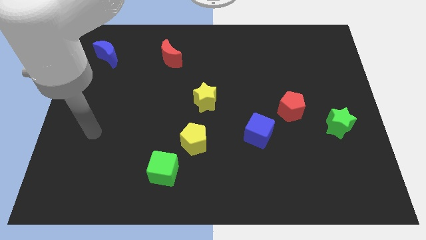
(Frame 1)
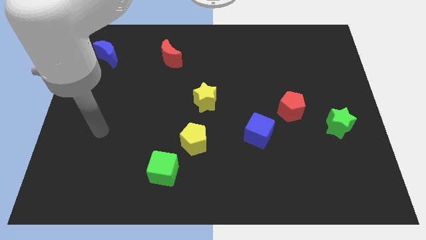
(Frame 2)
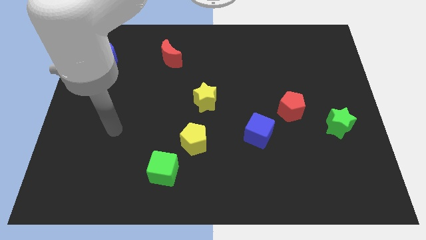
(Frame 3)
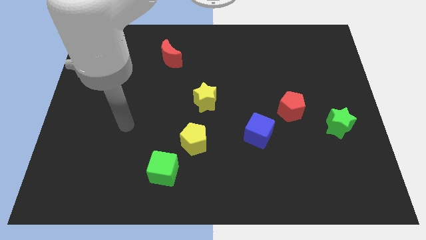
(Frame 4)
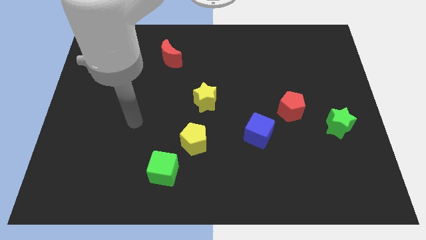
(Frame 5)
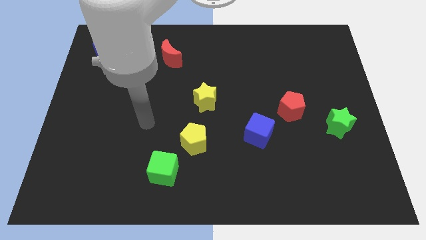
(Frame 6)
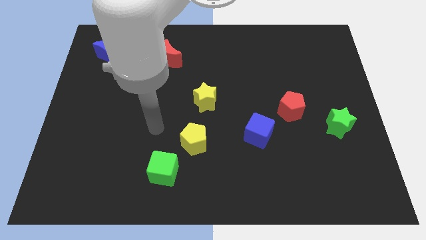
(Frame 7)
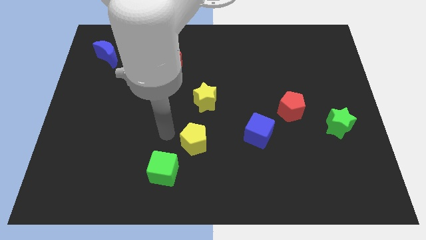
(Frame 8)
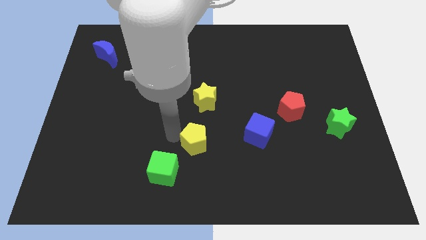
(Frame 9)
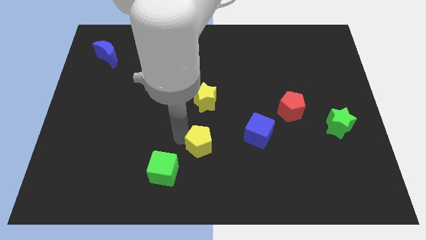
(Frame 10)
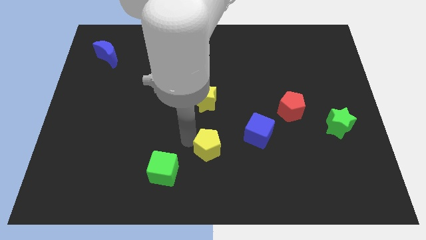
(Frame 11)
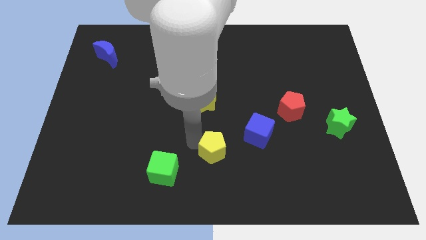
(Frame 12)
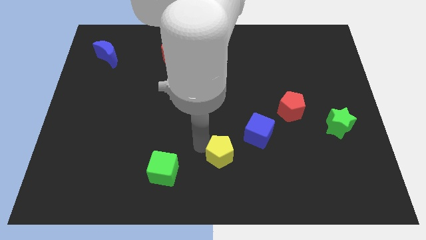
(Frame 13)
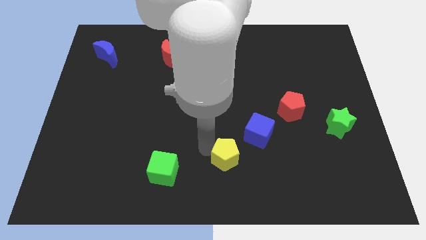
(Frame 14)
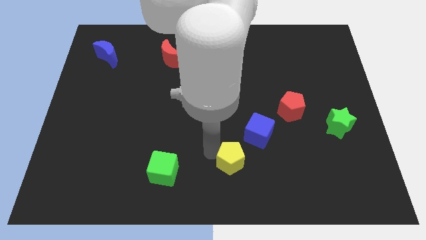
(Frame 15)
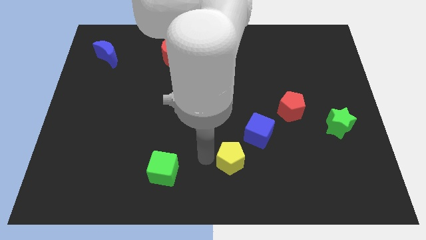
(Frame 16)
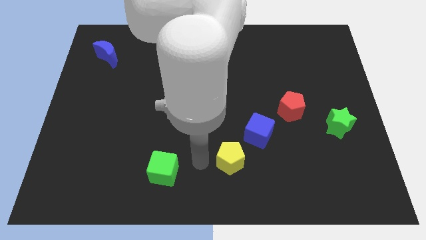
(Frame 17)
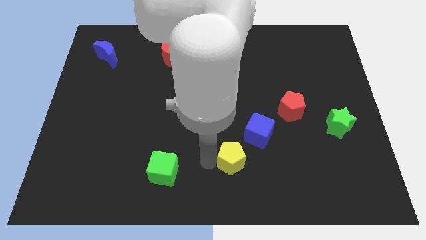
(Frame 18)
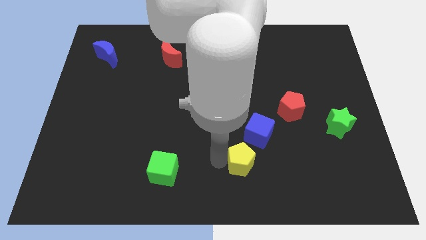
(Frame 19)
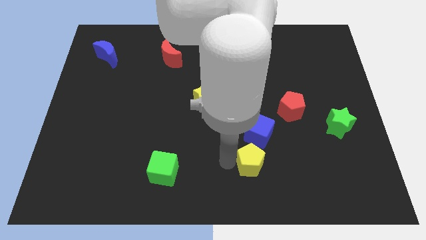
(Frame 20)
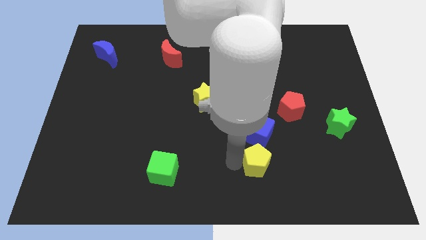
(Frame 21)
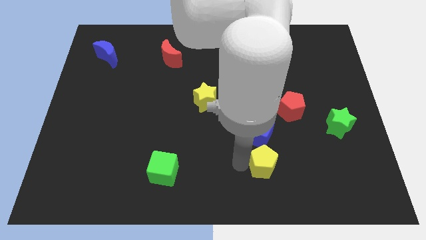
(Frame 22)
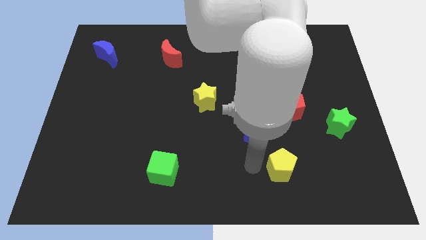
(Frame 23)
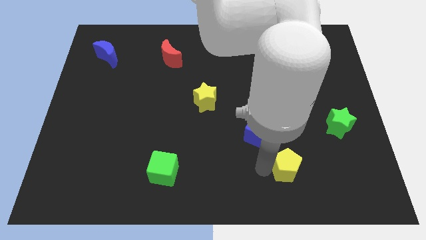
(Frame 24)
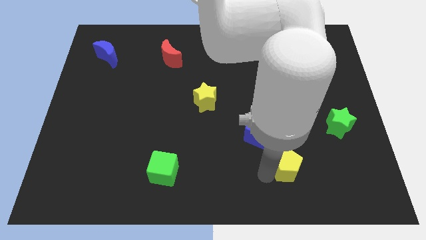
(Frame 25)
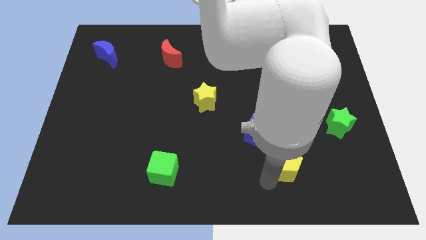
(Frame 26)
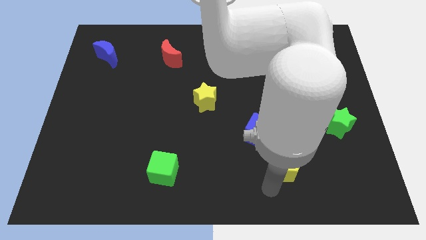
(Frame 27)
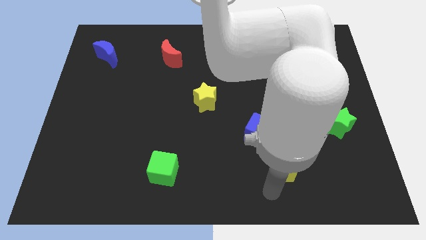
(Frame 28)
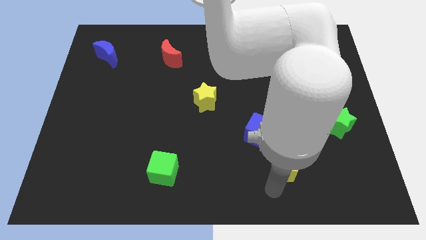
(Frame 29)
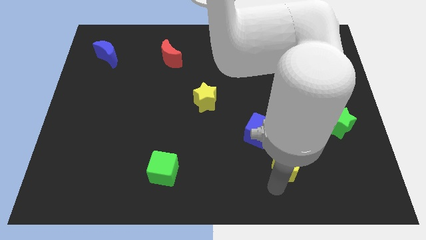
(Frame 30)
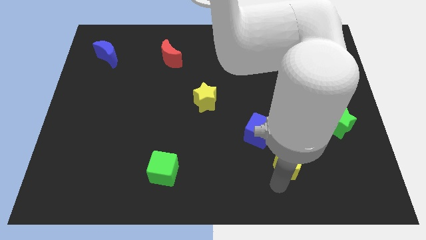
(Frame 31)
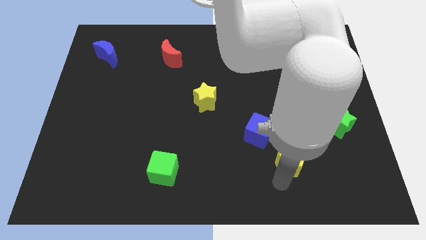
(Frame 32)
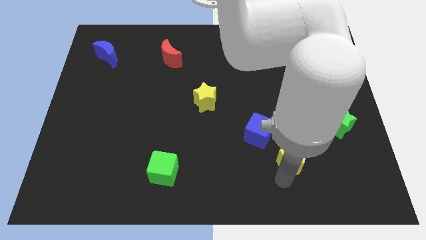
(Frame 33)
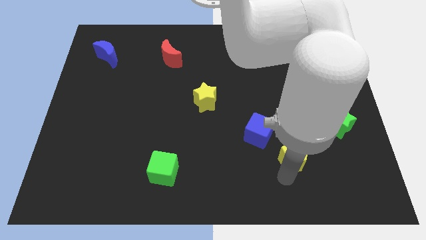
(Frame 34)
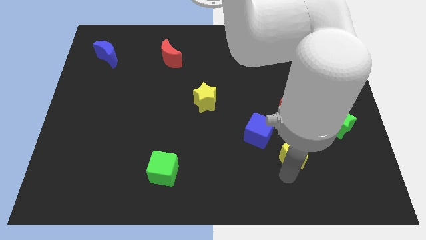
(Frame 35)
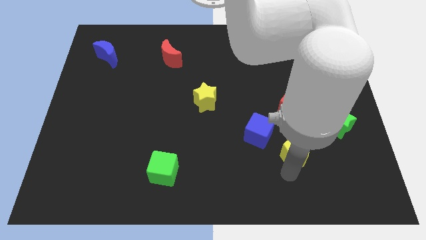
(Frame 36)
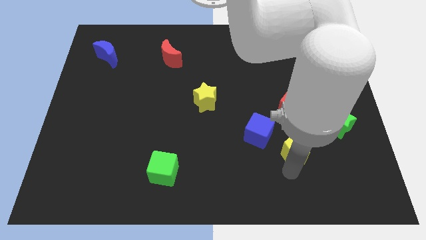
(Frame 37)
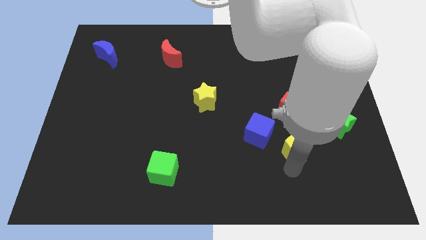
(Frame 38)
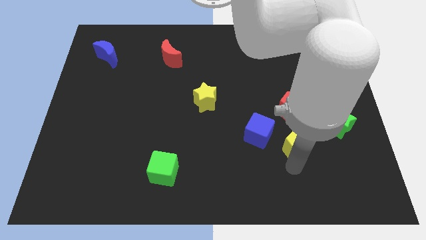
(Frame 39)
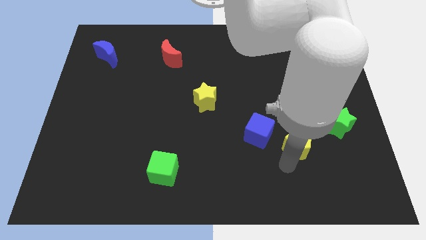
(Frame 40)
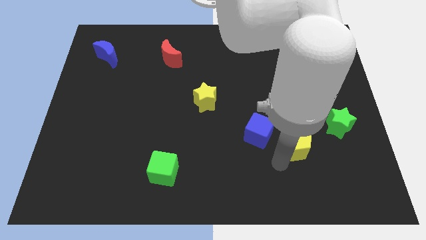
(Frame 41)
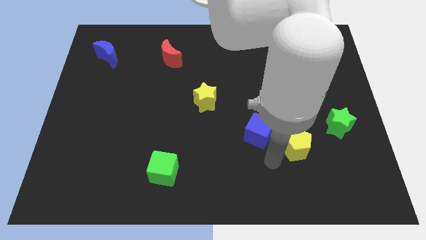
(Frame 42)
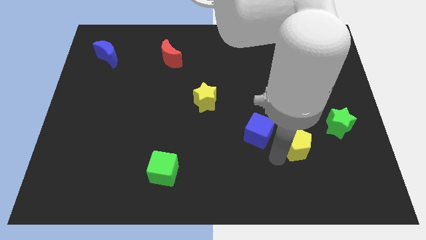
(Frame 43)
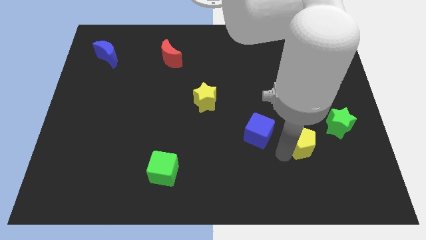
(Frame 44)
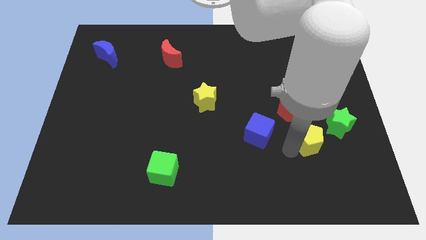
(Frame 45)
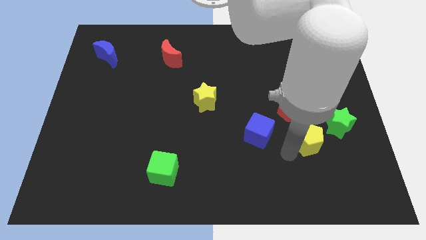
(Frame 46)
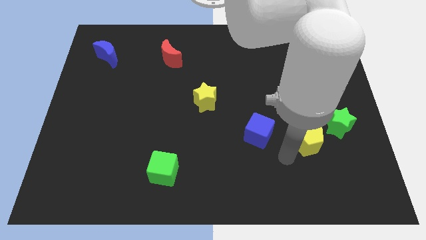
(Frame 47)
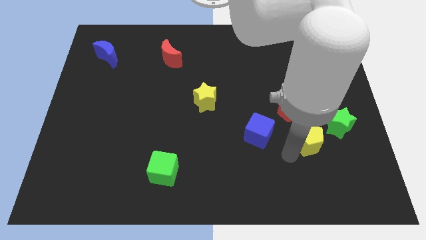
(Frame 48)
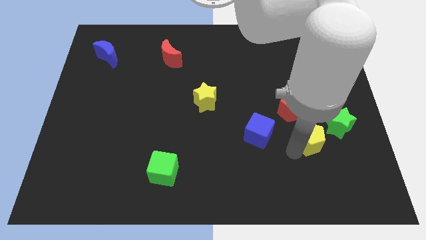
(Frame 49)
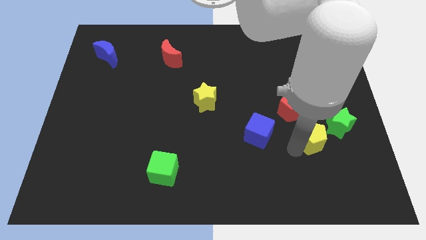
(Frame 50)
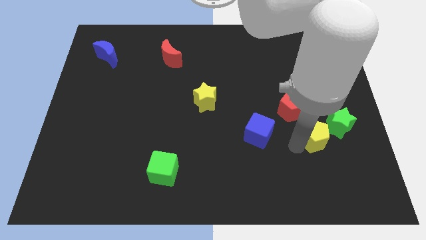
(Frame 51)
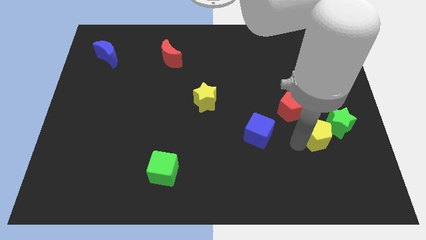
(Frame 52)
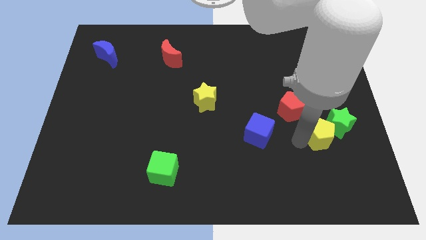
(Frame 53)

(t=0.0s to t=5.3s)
move the yellow pentagon close to the green star

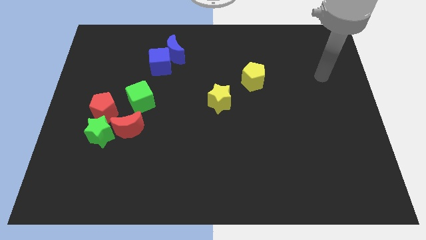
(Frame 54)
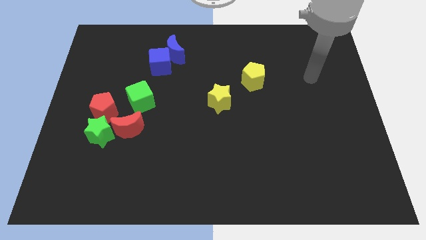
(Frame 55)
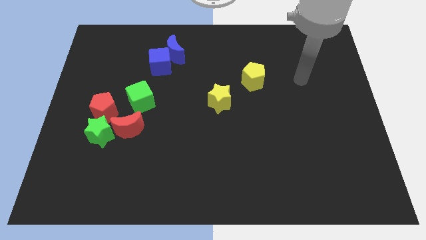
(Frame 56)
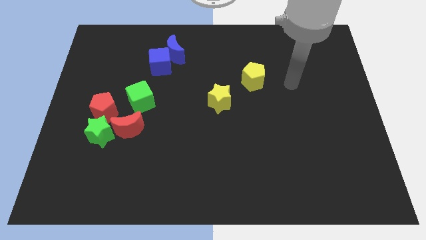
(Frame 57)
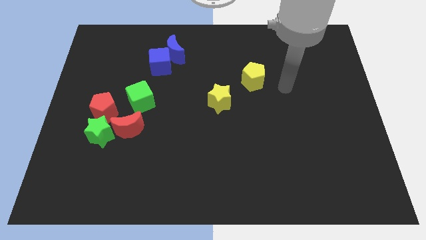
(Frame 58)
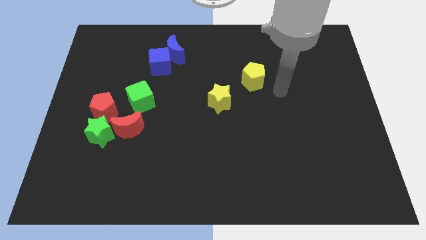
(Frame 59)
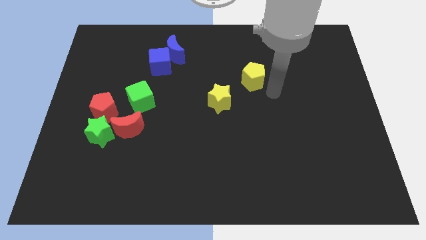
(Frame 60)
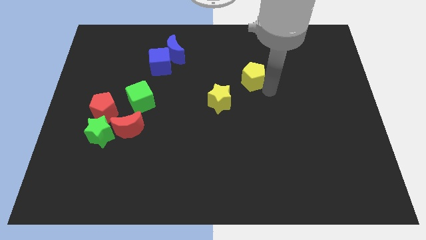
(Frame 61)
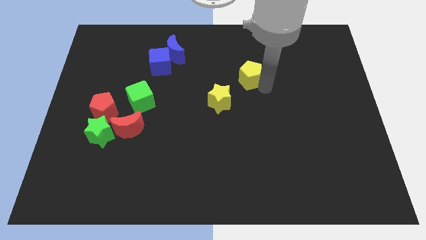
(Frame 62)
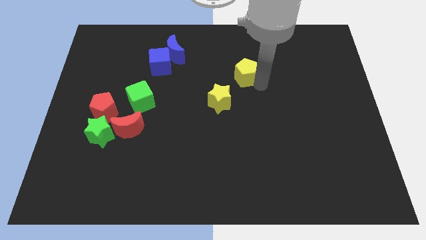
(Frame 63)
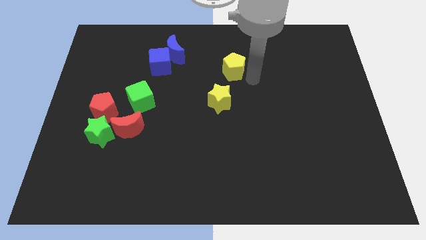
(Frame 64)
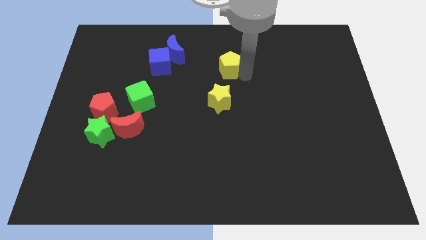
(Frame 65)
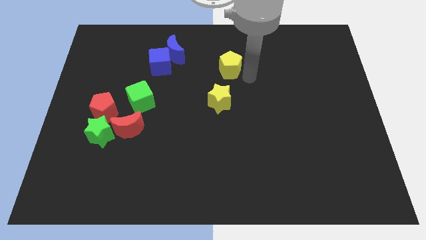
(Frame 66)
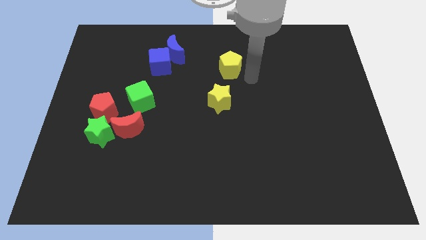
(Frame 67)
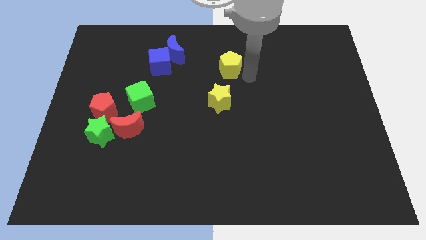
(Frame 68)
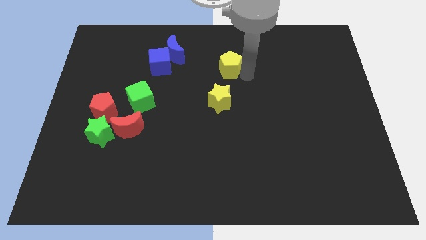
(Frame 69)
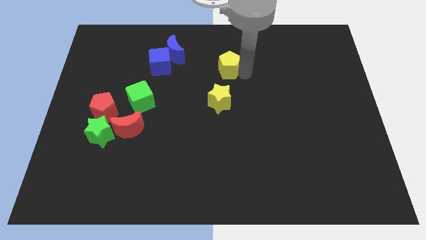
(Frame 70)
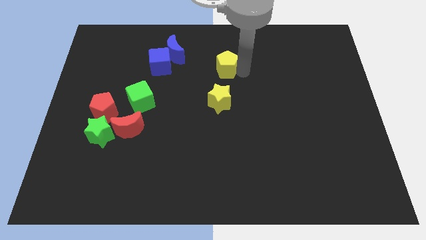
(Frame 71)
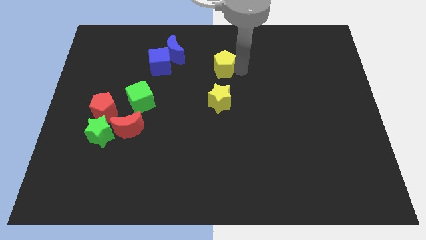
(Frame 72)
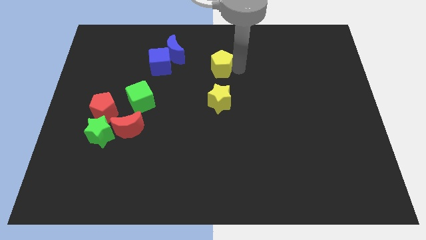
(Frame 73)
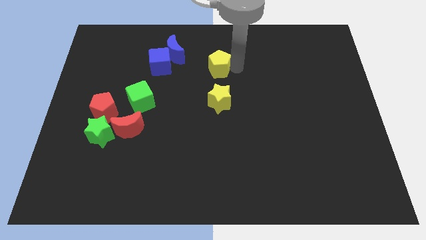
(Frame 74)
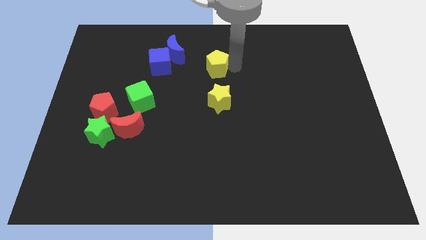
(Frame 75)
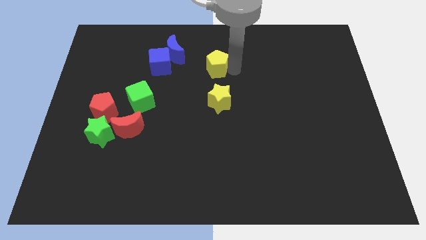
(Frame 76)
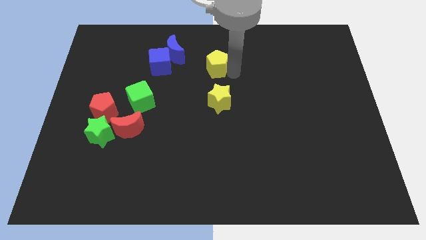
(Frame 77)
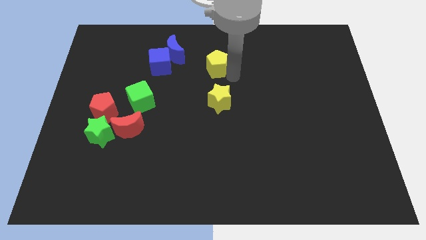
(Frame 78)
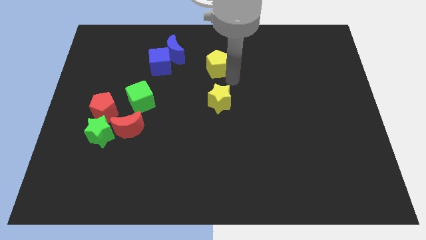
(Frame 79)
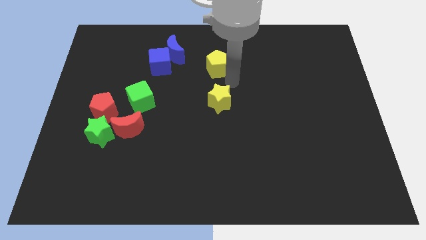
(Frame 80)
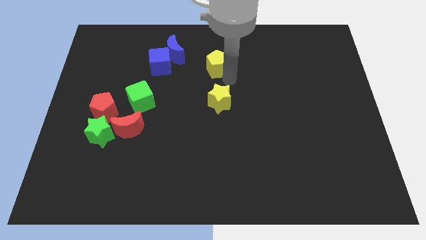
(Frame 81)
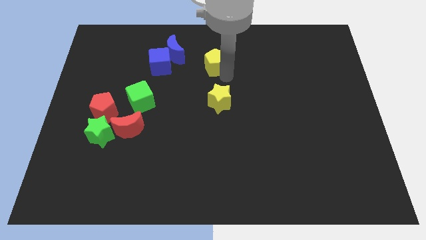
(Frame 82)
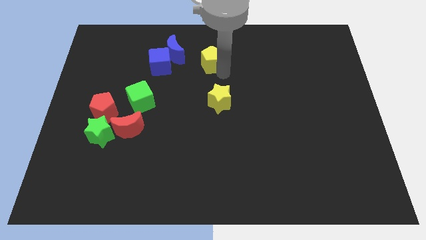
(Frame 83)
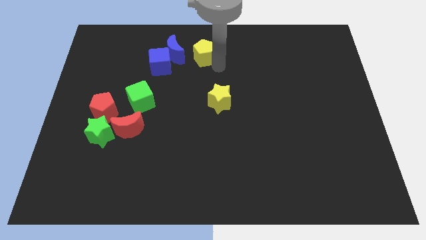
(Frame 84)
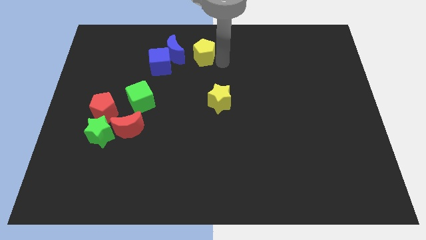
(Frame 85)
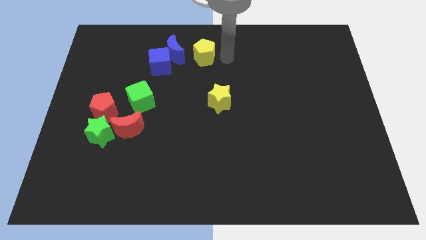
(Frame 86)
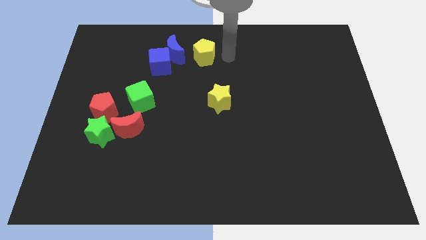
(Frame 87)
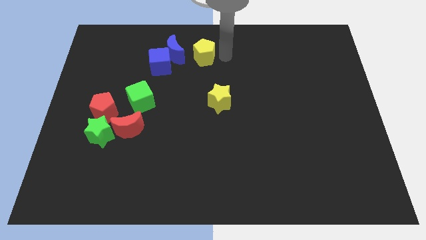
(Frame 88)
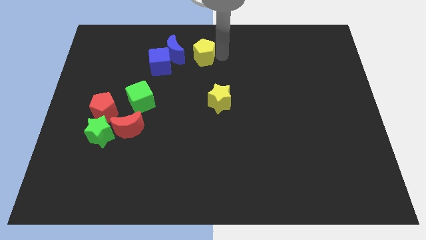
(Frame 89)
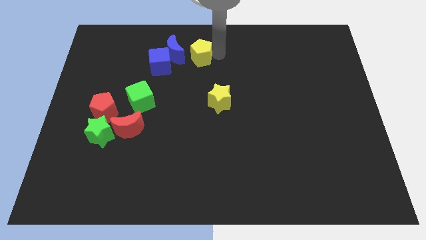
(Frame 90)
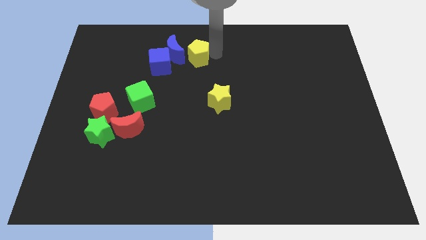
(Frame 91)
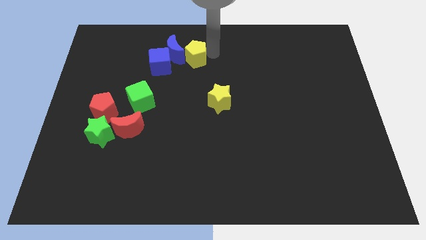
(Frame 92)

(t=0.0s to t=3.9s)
put the yellow pentagon to the blue moon
